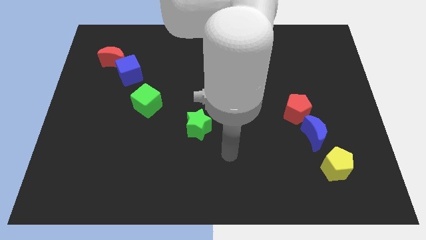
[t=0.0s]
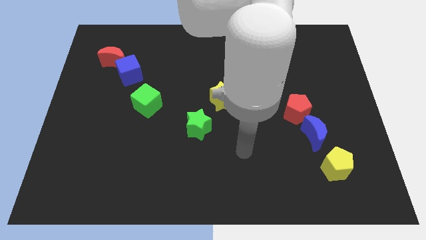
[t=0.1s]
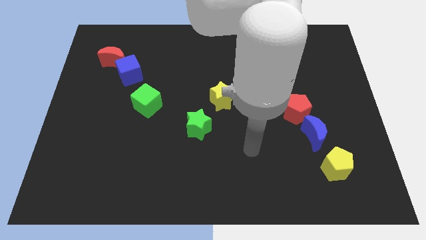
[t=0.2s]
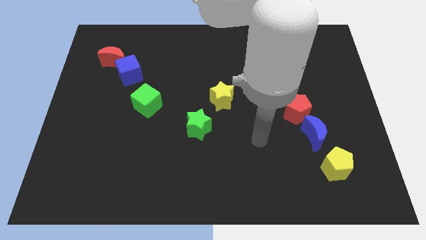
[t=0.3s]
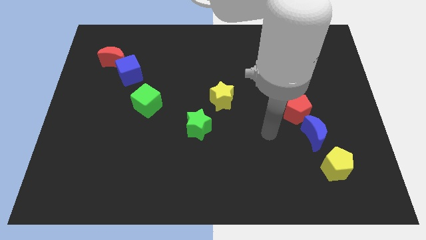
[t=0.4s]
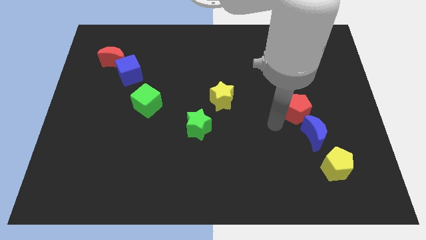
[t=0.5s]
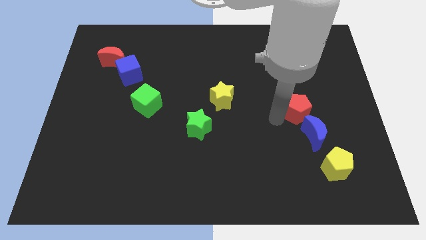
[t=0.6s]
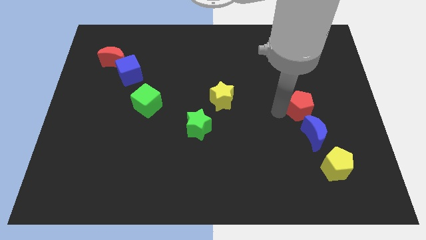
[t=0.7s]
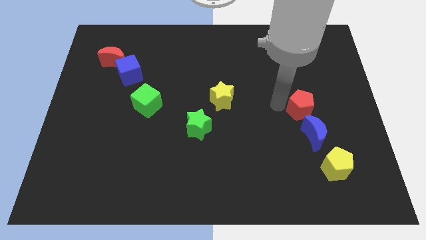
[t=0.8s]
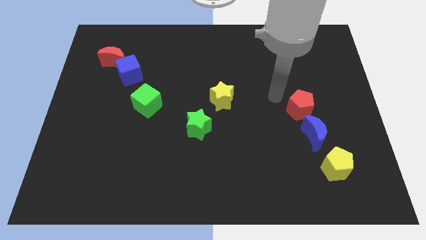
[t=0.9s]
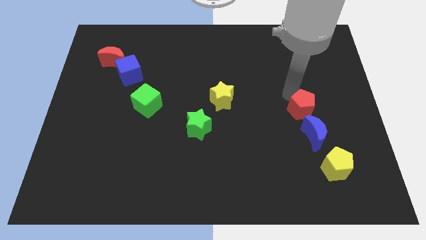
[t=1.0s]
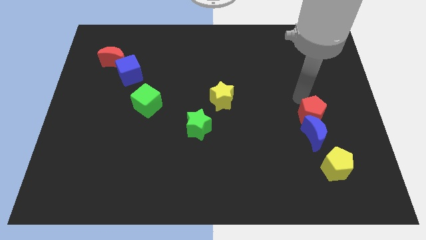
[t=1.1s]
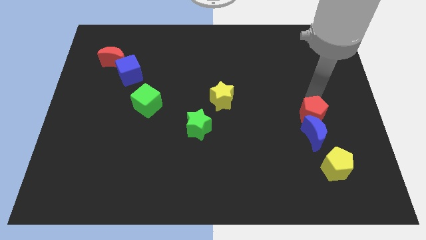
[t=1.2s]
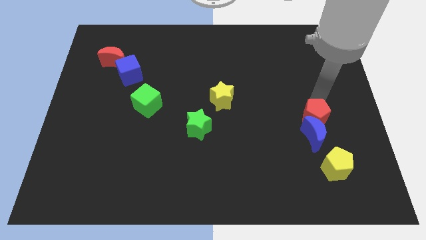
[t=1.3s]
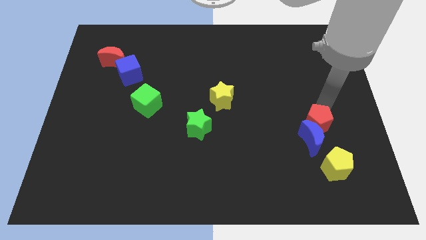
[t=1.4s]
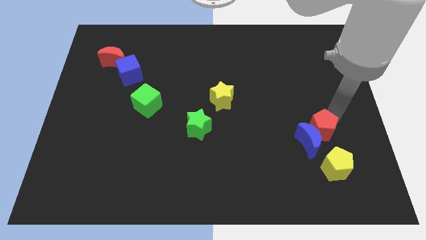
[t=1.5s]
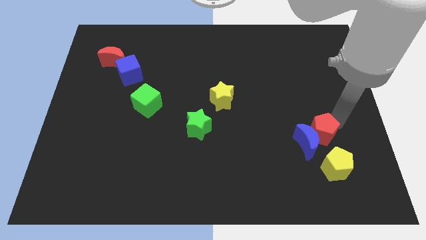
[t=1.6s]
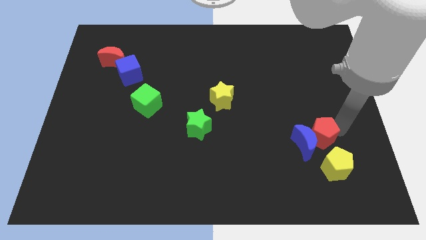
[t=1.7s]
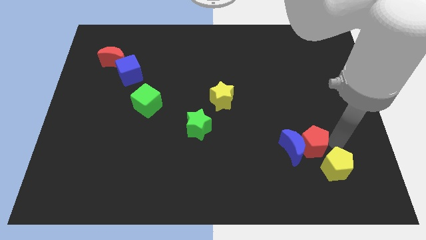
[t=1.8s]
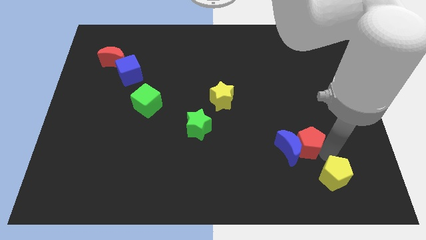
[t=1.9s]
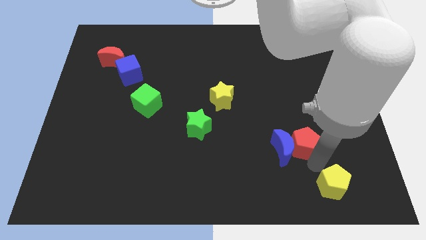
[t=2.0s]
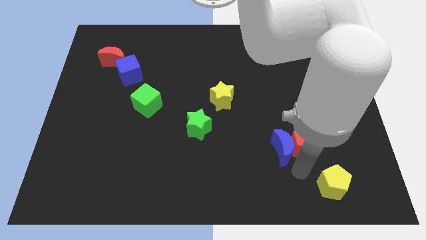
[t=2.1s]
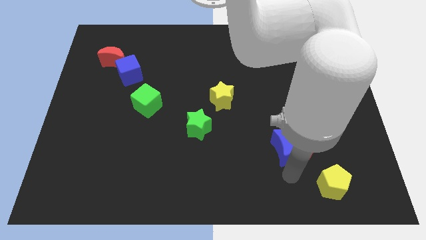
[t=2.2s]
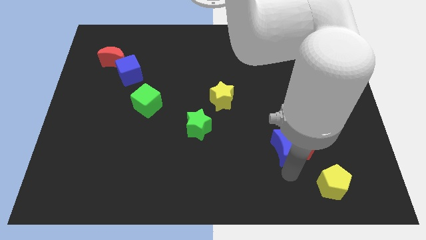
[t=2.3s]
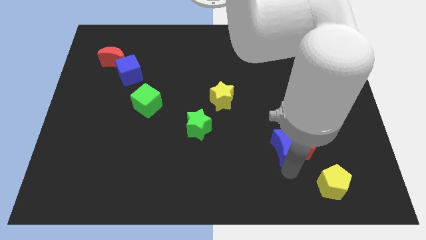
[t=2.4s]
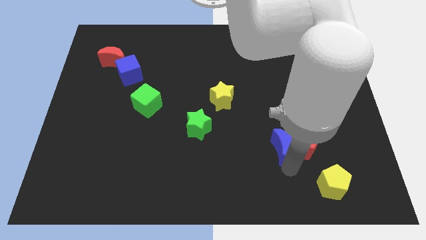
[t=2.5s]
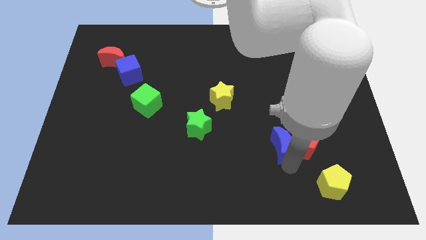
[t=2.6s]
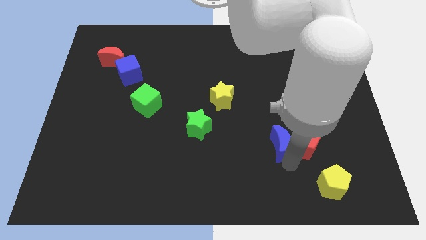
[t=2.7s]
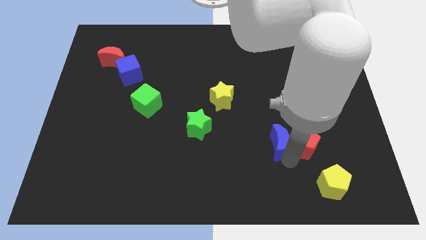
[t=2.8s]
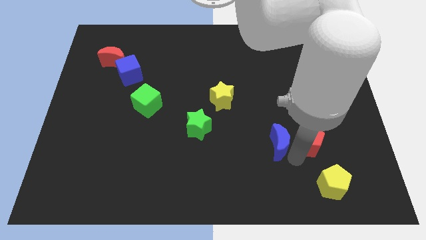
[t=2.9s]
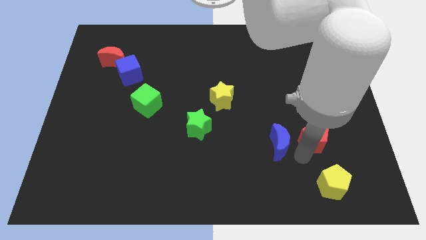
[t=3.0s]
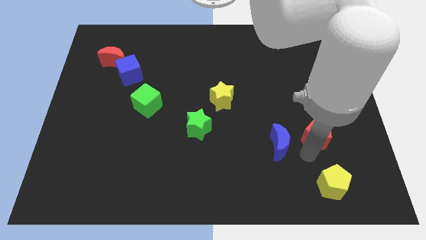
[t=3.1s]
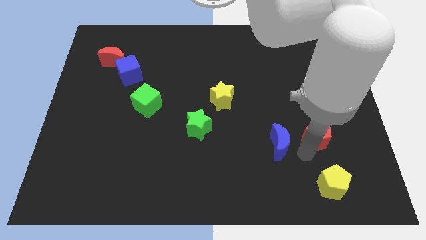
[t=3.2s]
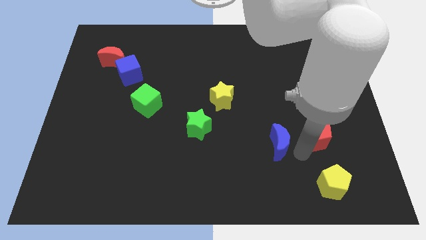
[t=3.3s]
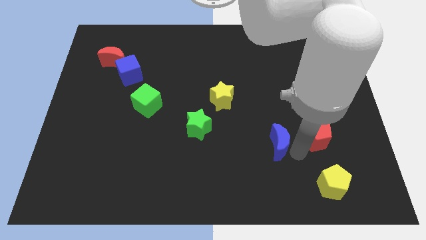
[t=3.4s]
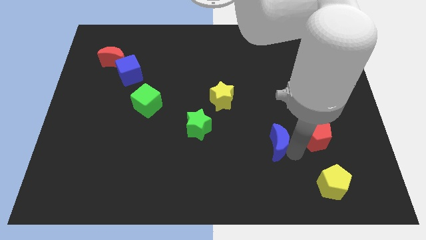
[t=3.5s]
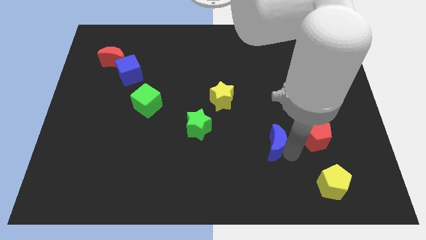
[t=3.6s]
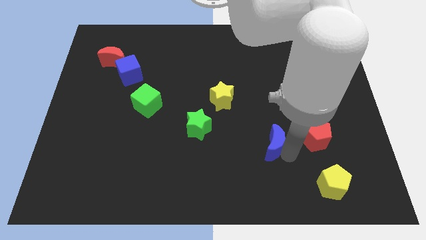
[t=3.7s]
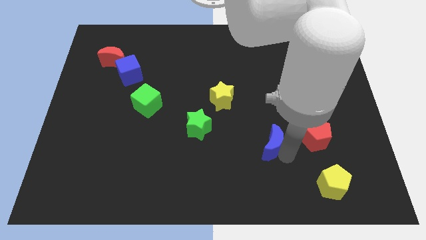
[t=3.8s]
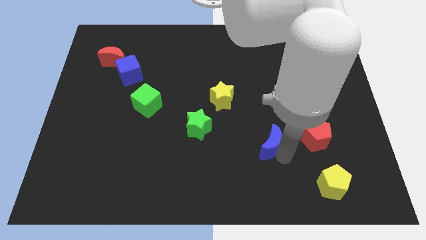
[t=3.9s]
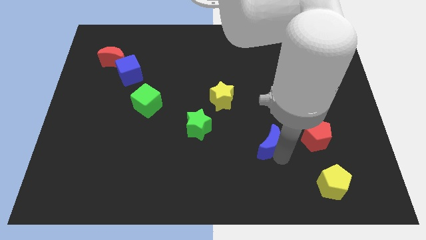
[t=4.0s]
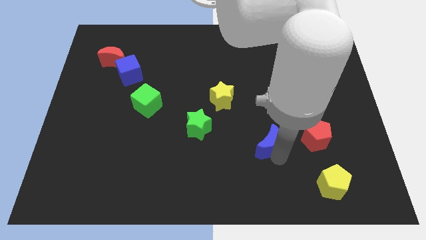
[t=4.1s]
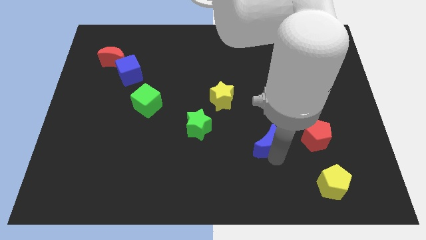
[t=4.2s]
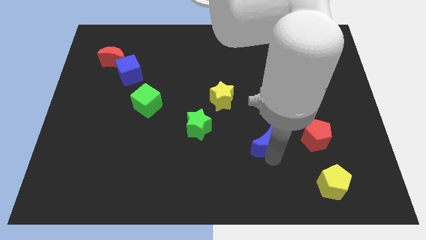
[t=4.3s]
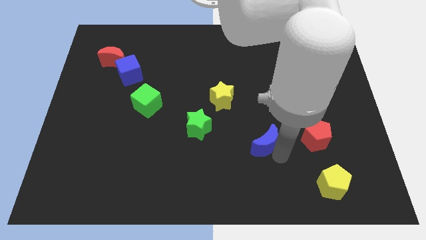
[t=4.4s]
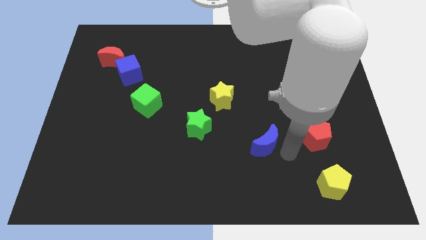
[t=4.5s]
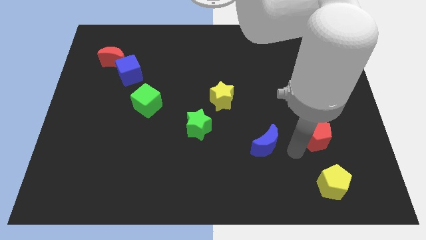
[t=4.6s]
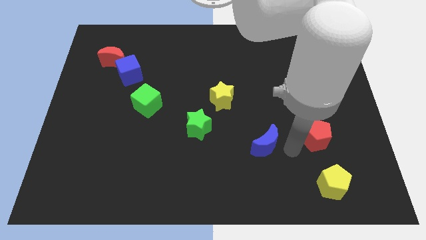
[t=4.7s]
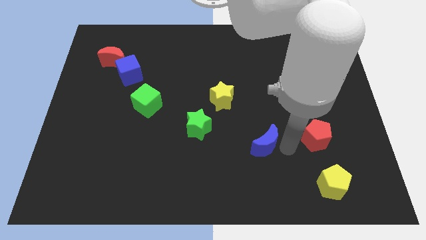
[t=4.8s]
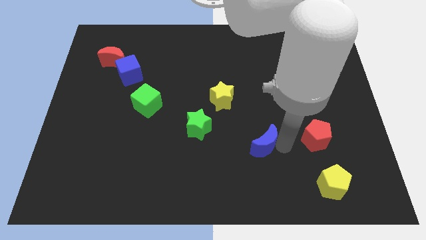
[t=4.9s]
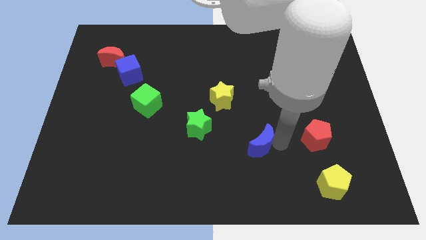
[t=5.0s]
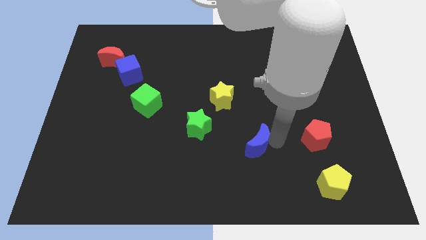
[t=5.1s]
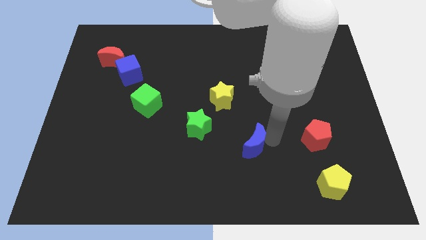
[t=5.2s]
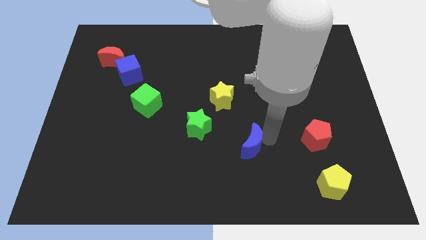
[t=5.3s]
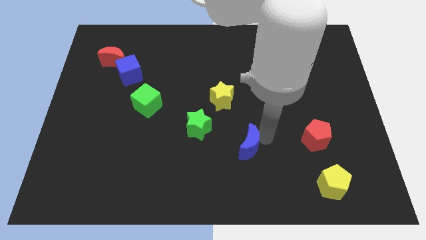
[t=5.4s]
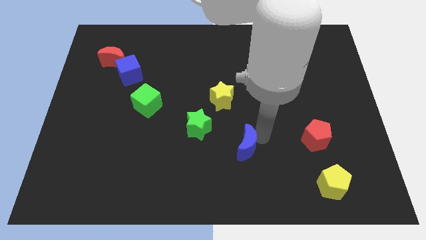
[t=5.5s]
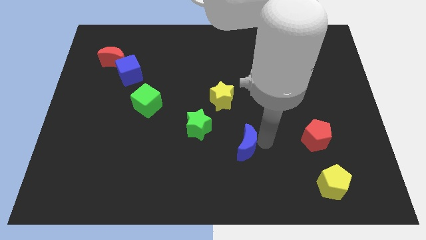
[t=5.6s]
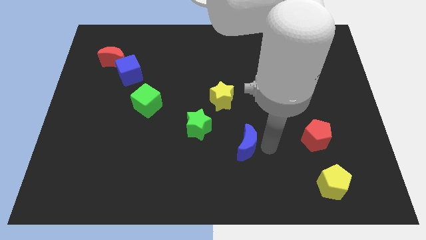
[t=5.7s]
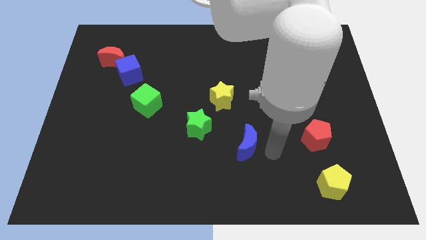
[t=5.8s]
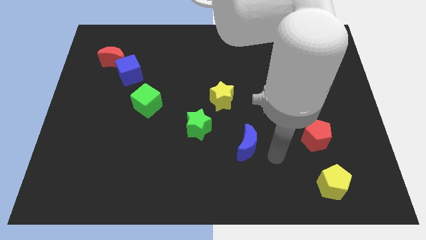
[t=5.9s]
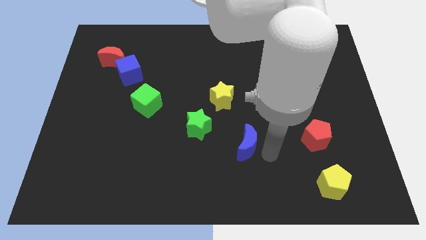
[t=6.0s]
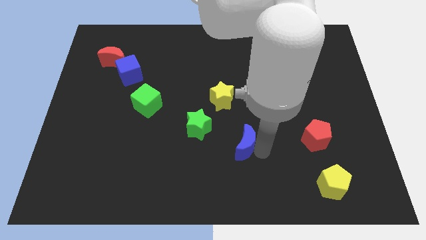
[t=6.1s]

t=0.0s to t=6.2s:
push the blue moon to the bottom side of the yellow star

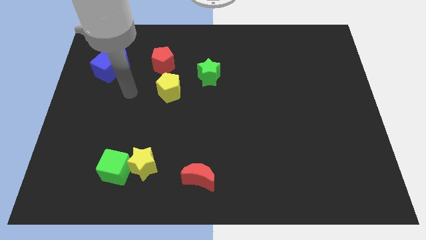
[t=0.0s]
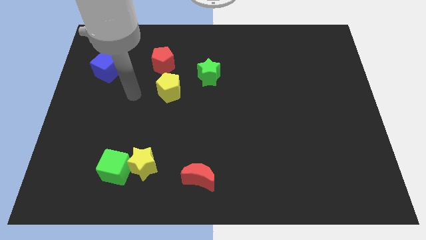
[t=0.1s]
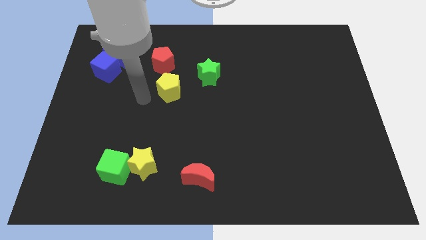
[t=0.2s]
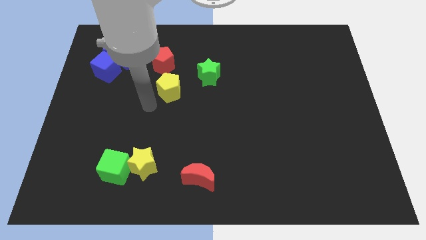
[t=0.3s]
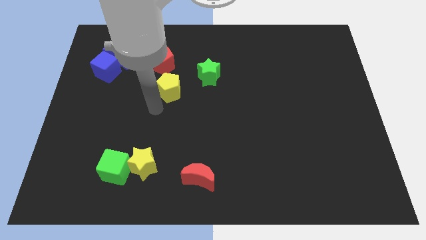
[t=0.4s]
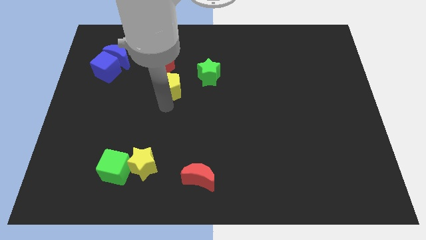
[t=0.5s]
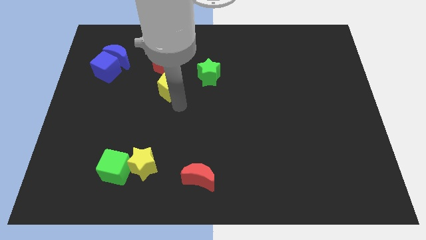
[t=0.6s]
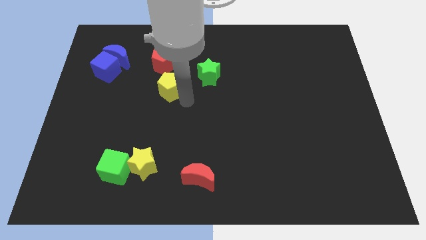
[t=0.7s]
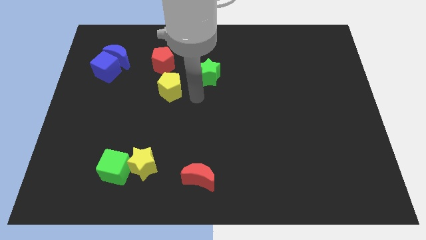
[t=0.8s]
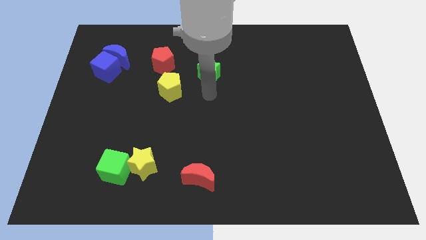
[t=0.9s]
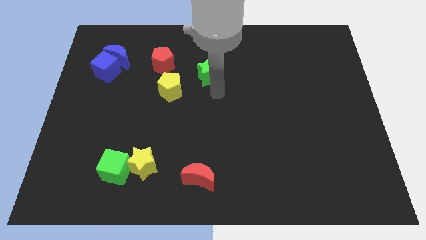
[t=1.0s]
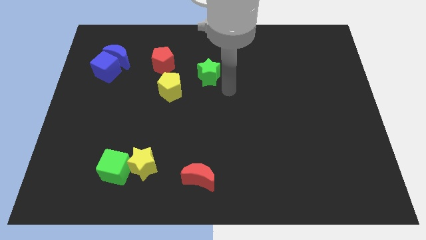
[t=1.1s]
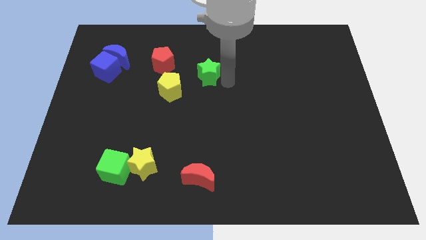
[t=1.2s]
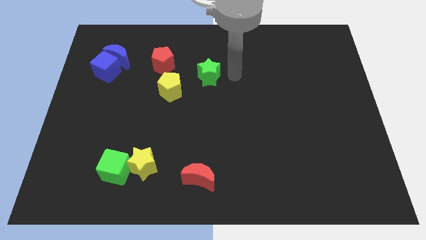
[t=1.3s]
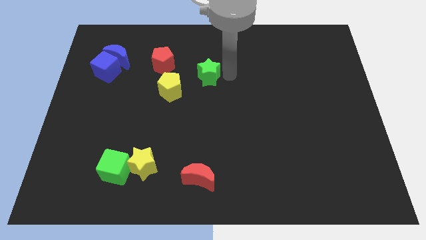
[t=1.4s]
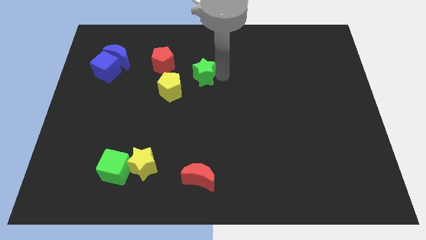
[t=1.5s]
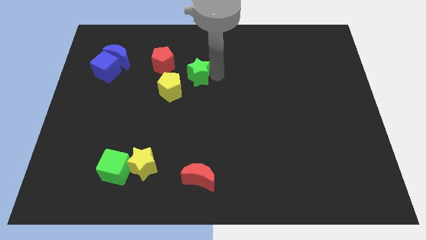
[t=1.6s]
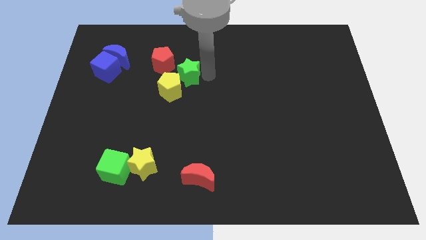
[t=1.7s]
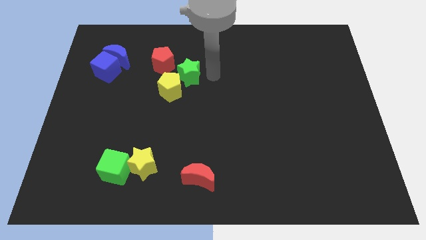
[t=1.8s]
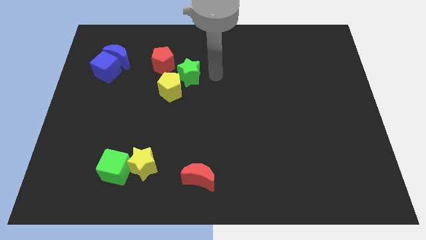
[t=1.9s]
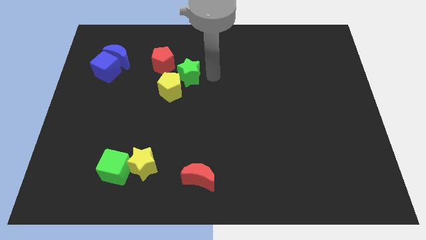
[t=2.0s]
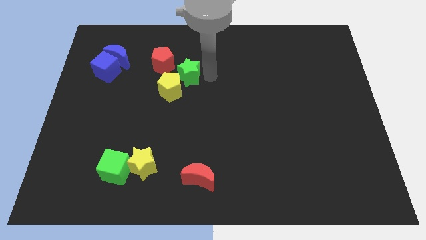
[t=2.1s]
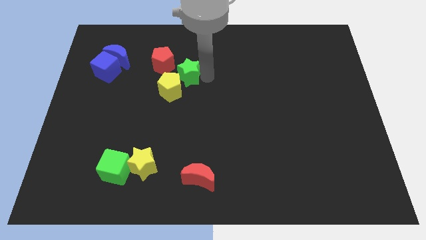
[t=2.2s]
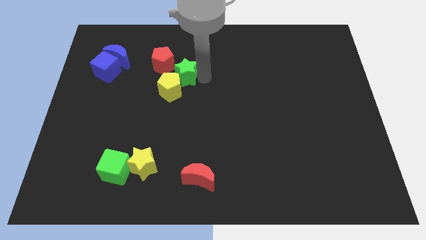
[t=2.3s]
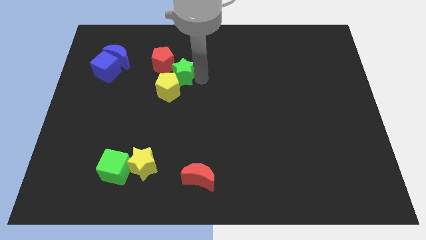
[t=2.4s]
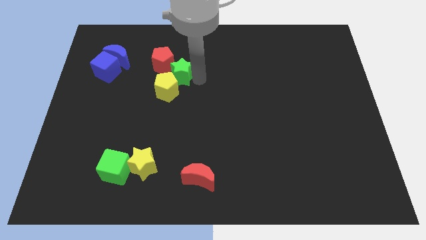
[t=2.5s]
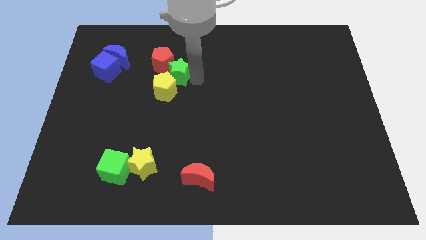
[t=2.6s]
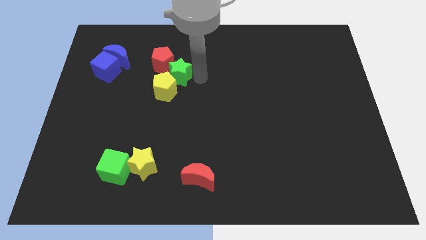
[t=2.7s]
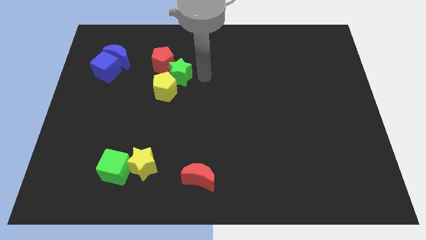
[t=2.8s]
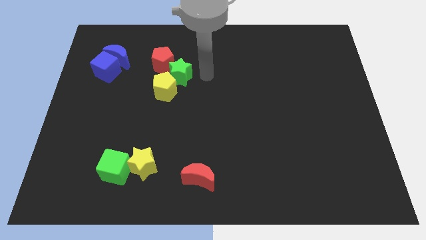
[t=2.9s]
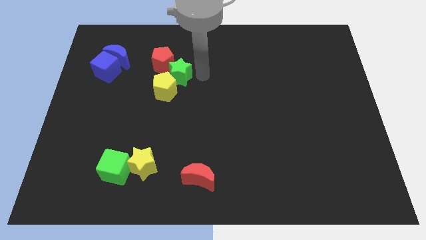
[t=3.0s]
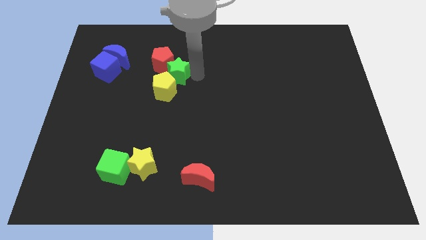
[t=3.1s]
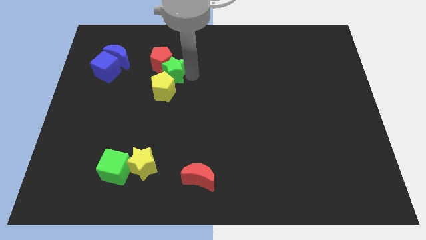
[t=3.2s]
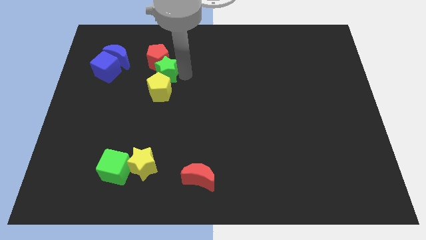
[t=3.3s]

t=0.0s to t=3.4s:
slide the green star just right of the blue cube
